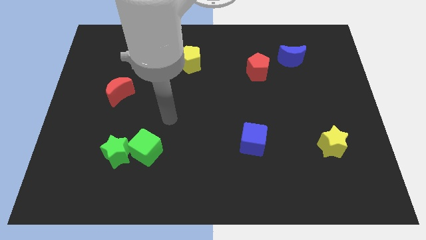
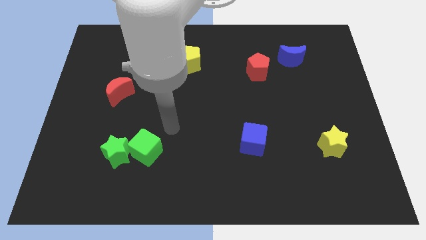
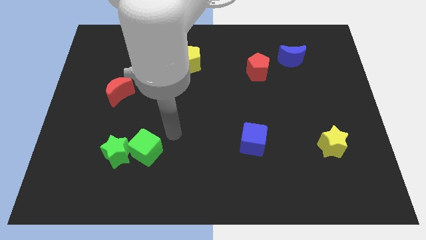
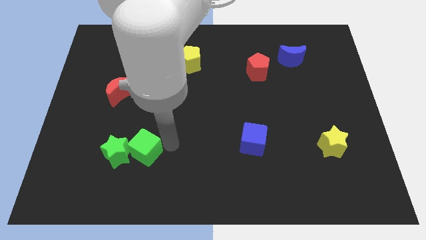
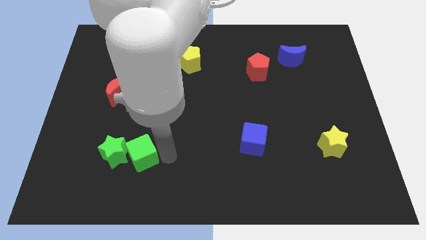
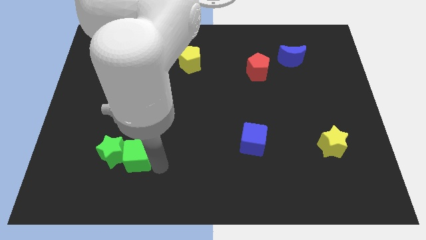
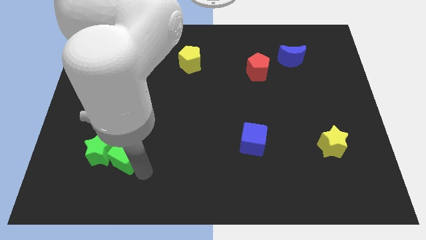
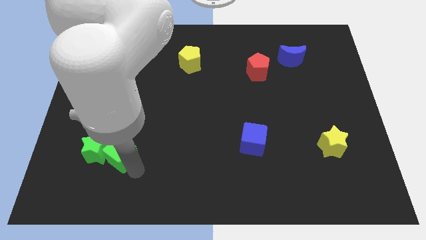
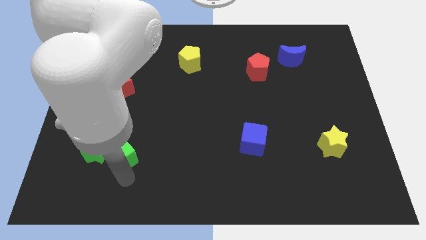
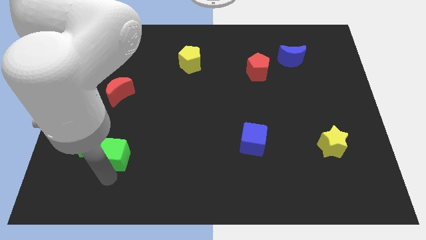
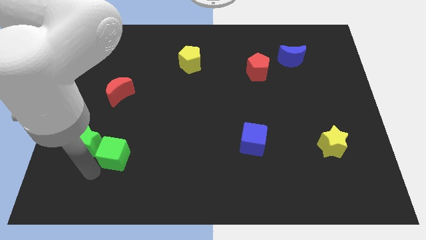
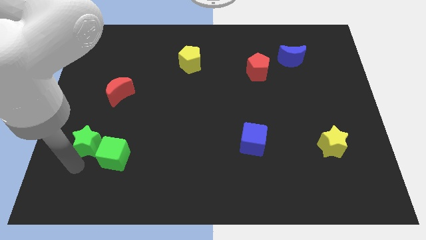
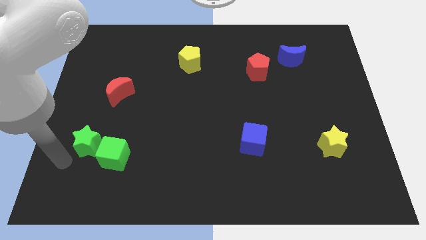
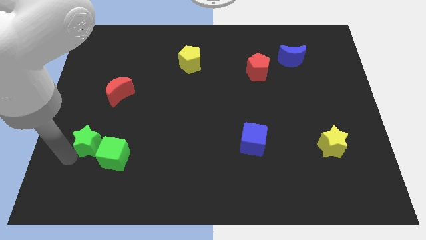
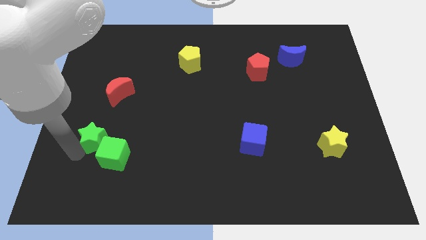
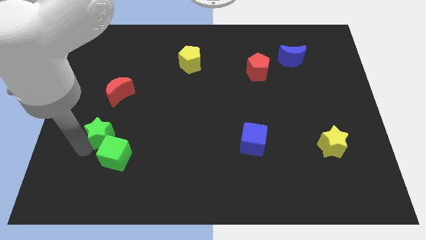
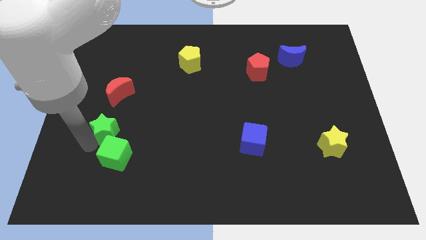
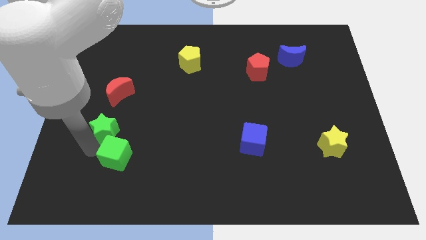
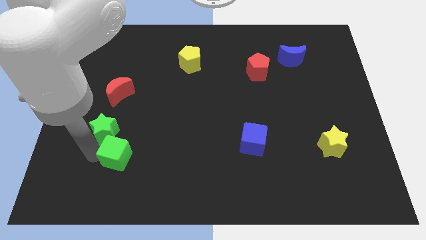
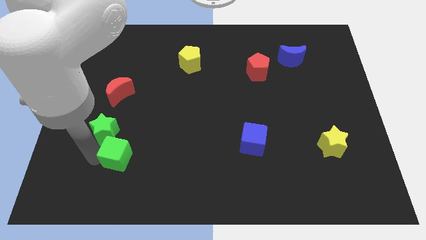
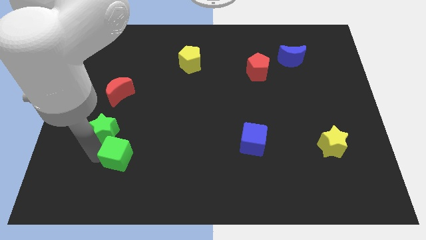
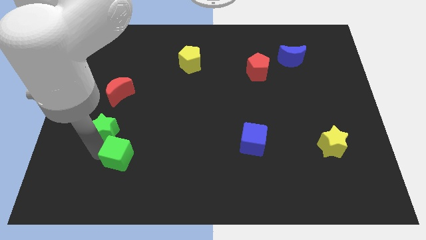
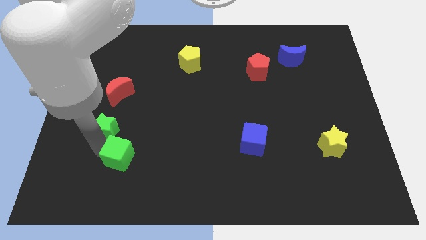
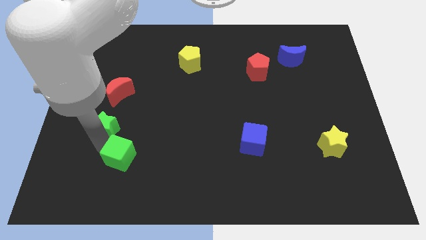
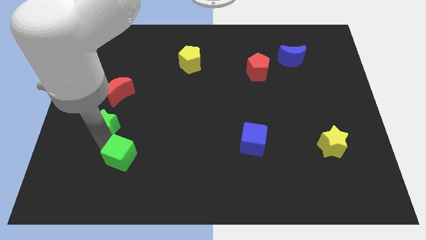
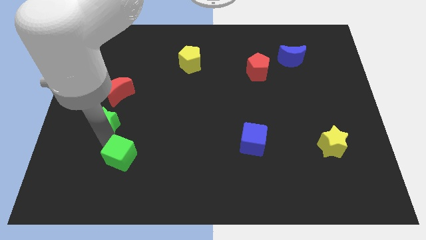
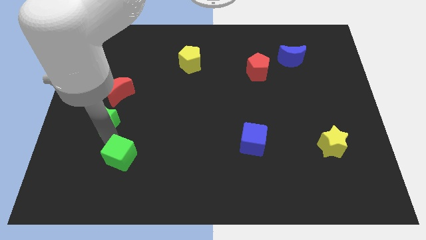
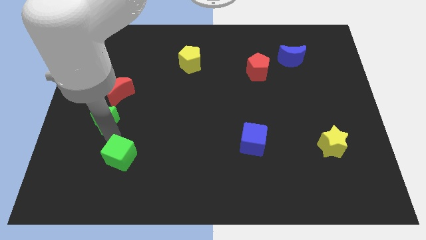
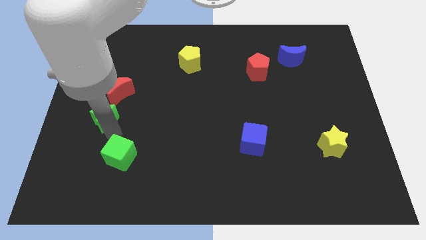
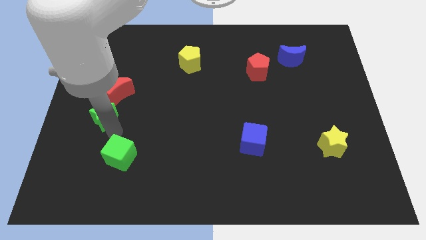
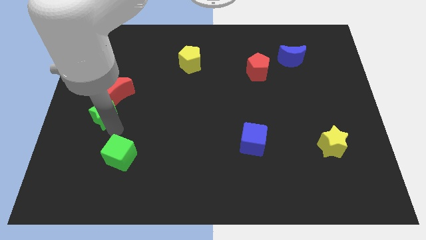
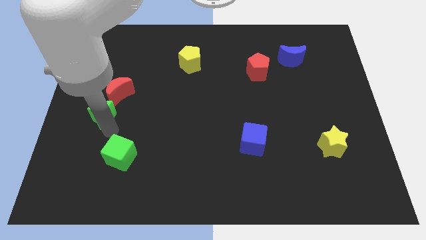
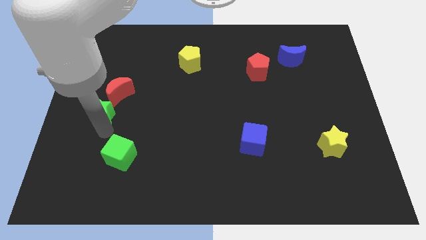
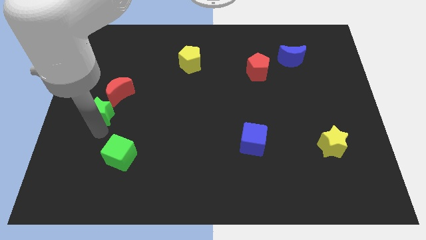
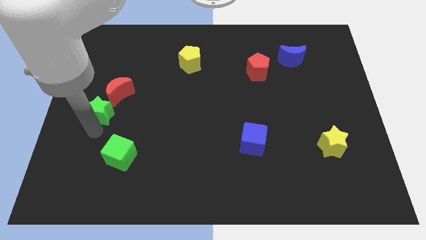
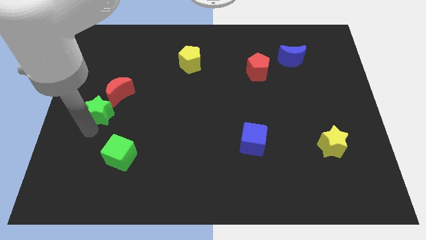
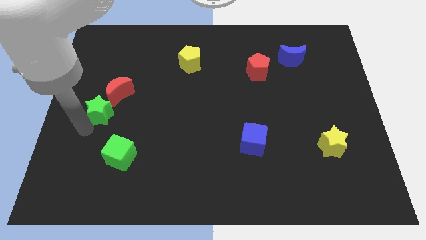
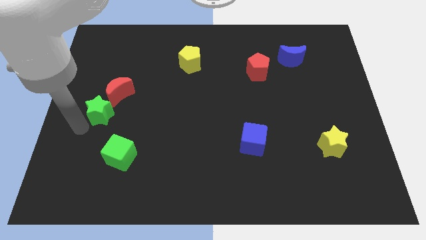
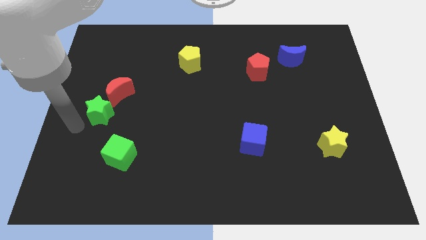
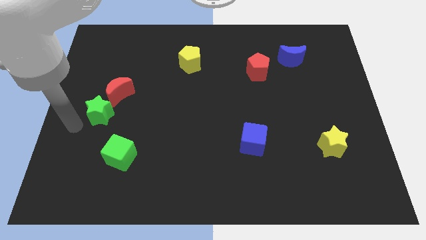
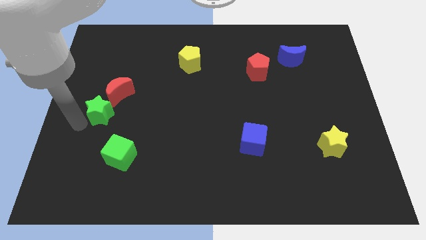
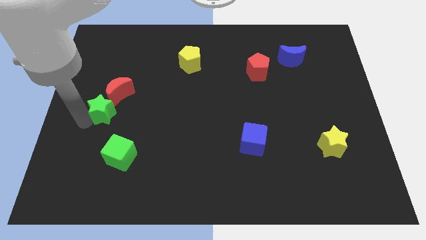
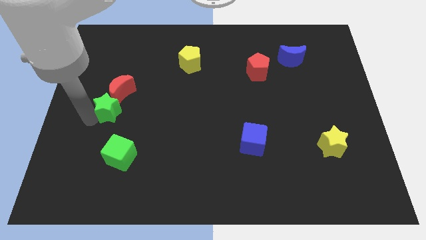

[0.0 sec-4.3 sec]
push the green star next to the red moon

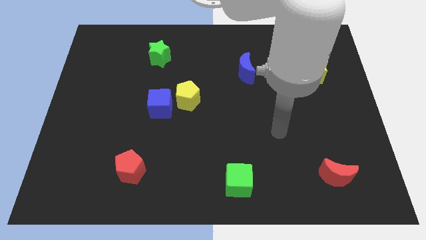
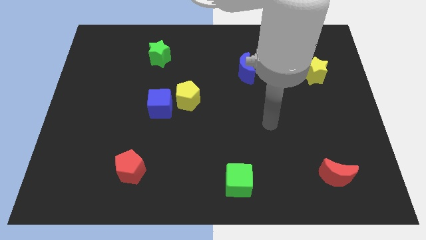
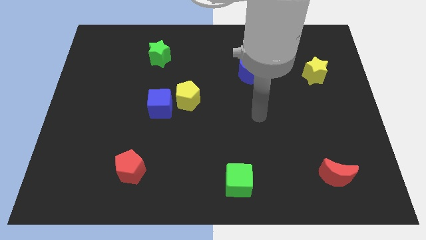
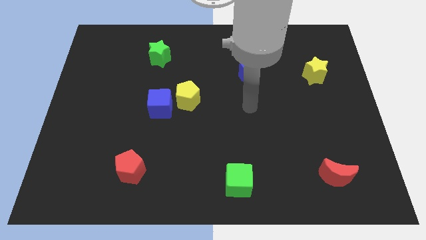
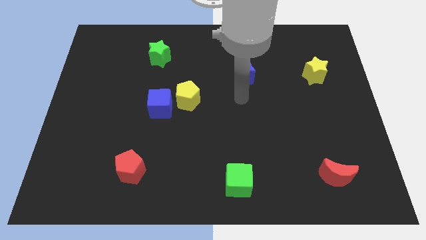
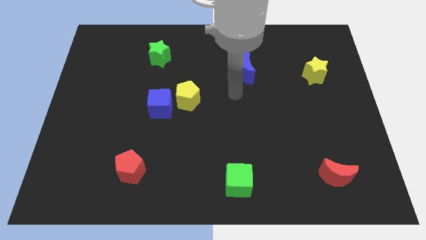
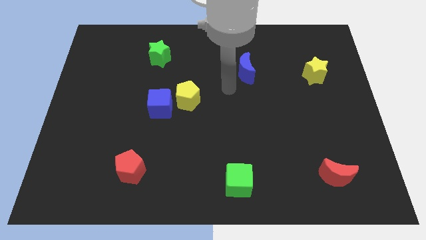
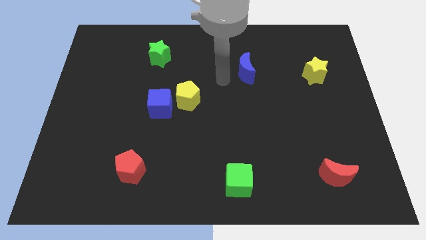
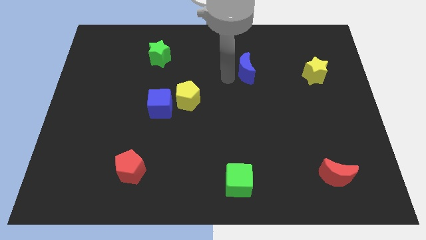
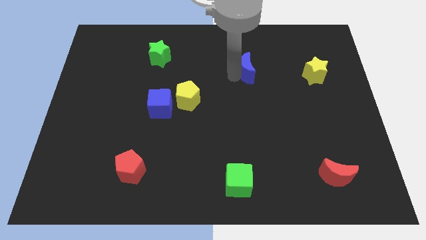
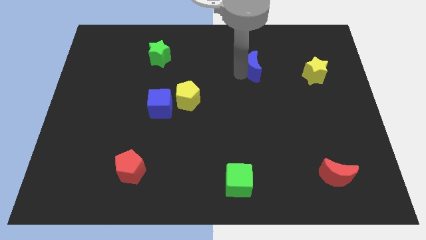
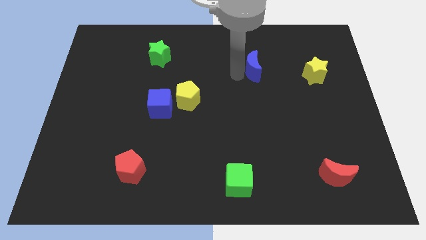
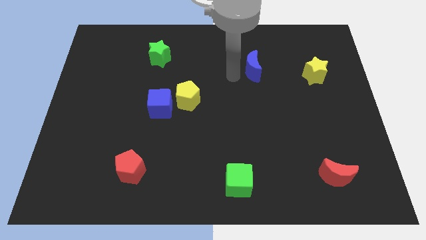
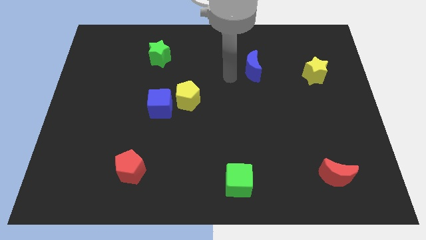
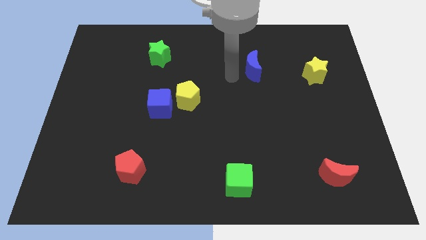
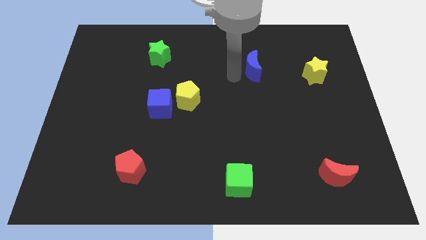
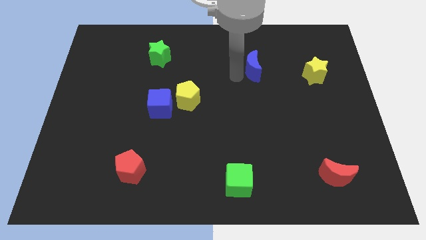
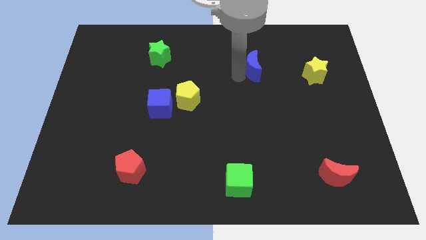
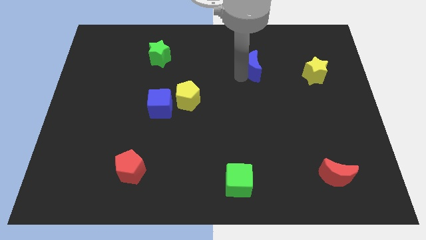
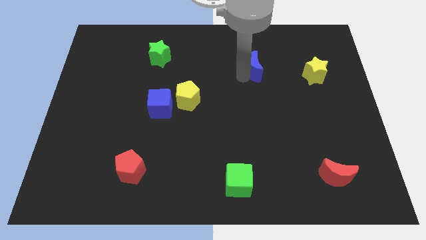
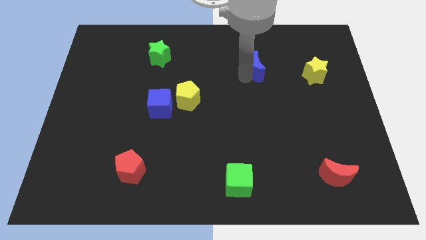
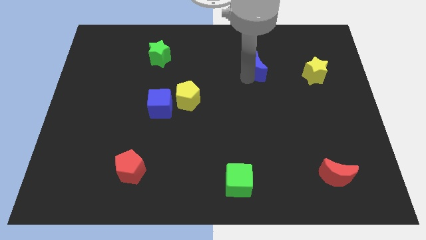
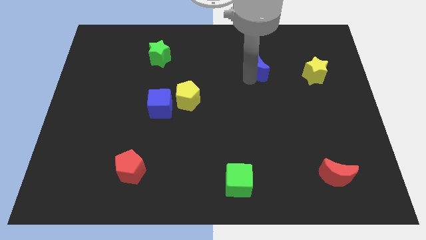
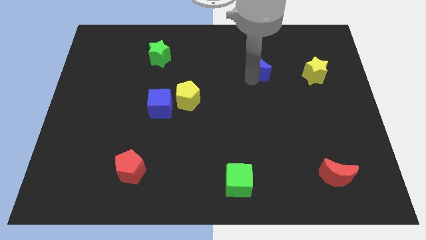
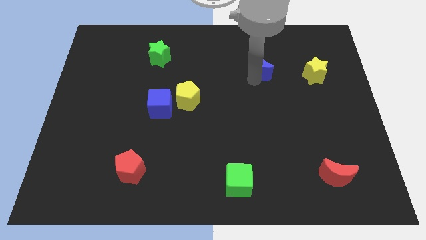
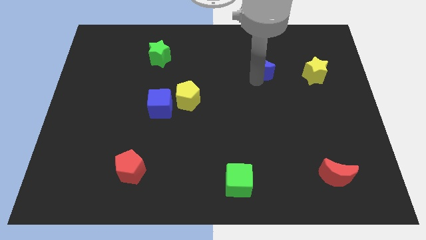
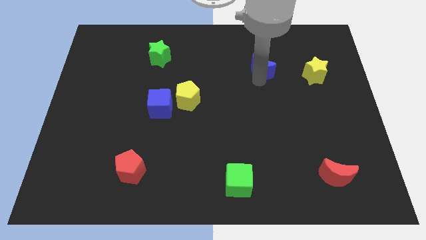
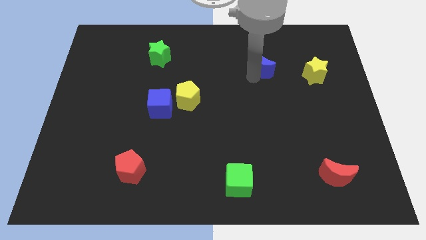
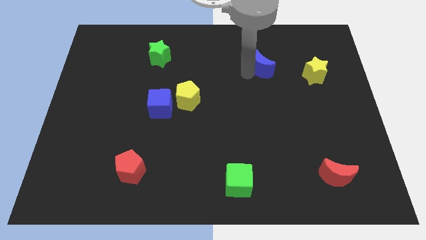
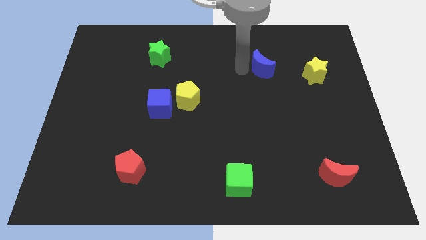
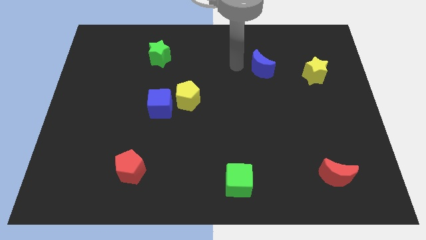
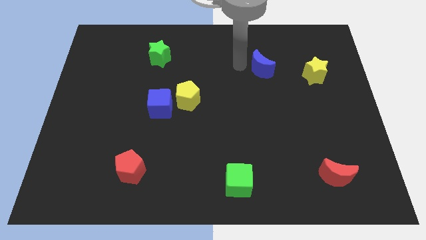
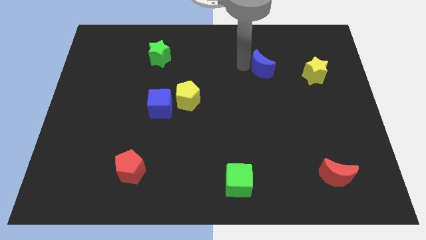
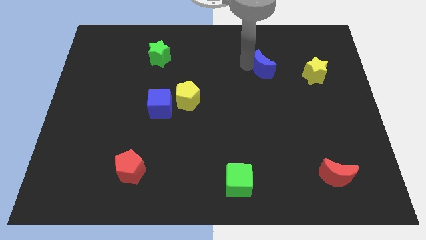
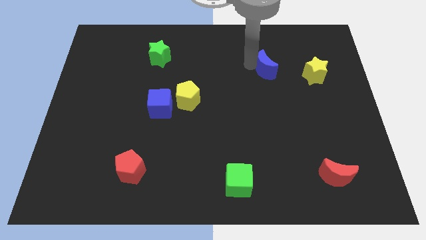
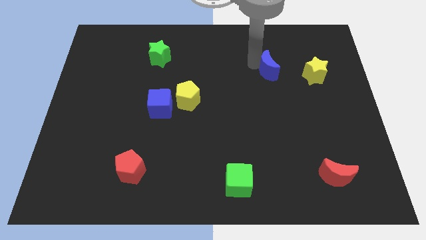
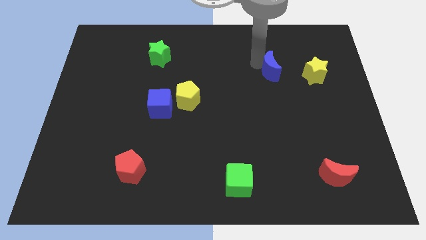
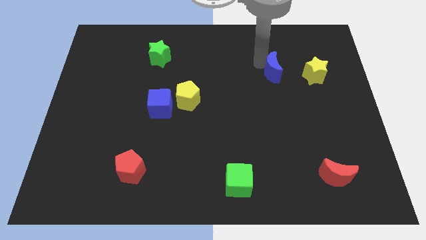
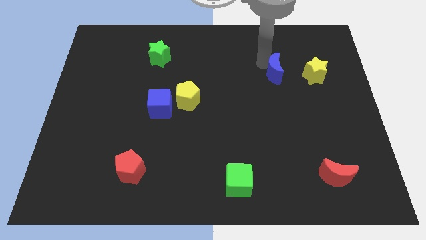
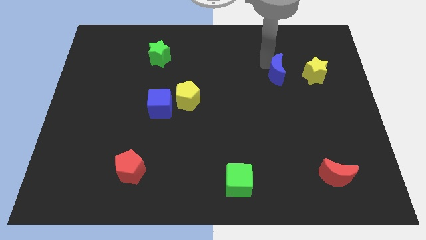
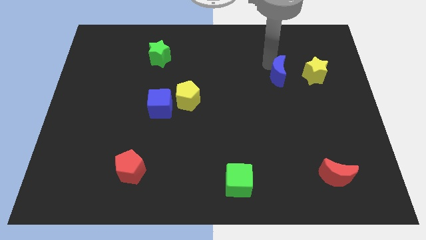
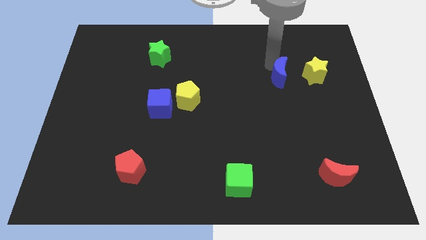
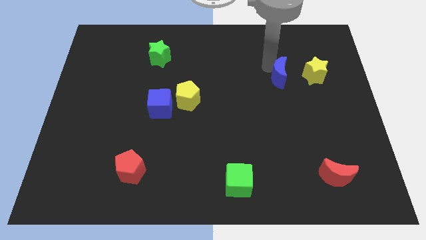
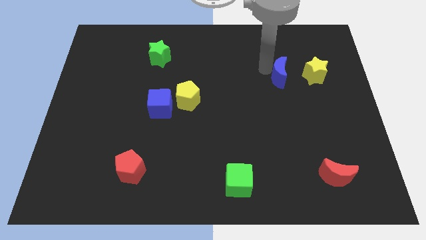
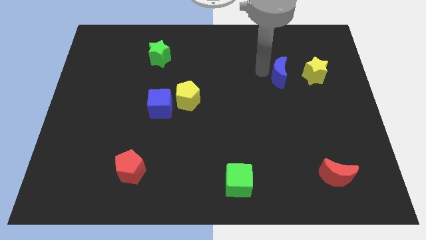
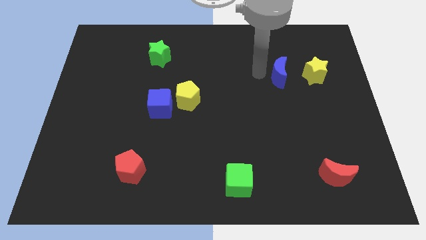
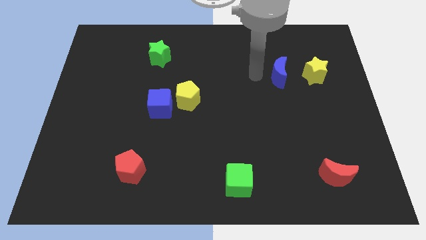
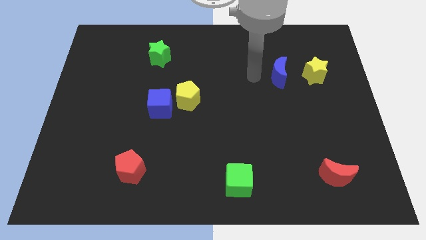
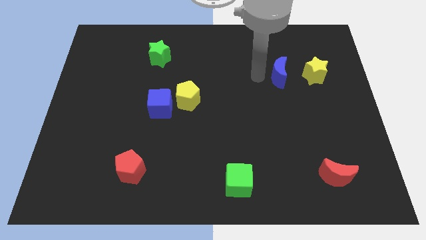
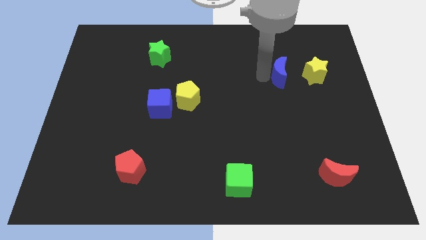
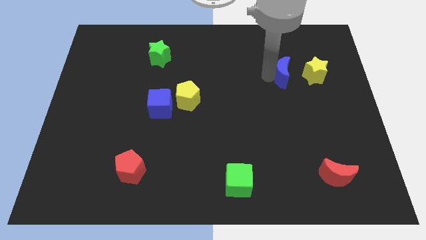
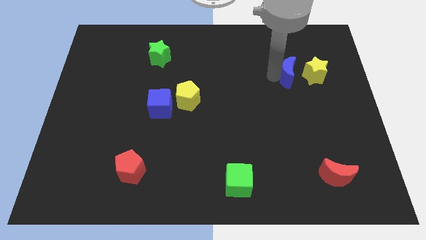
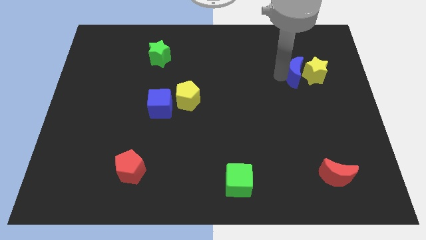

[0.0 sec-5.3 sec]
move the blue moon to the yellow star
